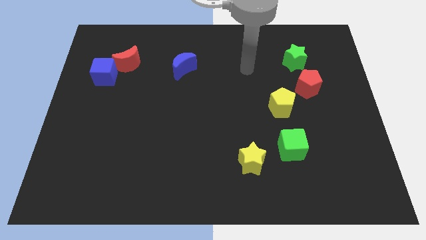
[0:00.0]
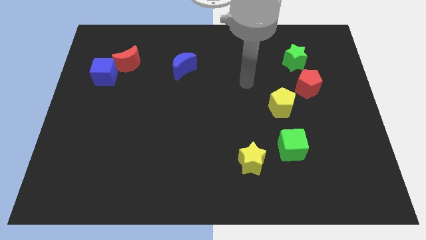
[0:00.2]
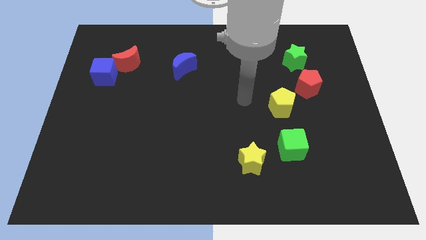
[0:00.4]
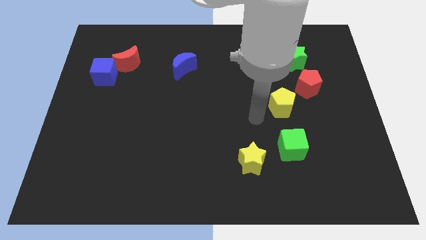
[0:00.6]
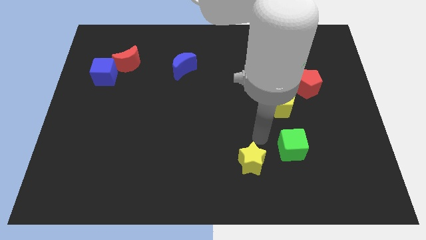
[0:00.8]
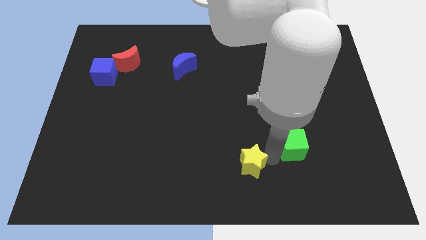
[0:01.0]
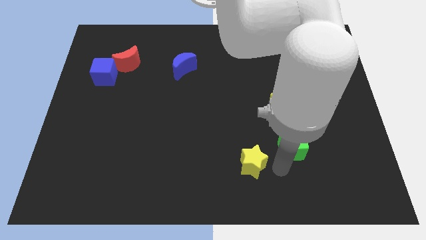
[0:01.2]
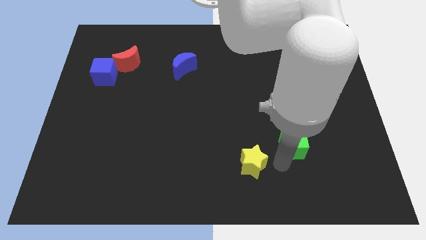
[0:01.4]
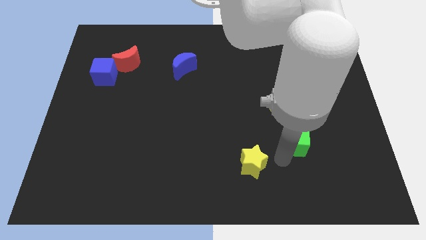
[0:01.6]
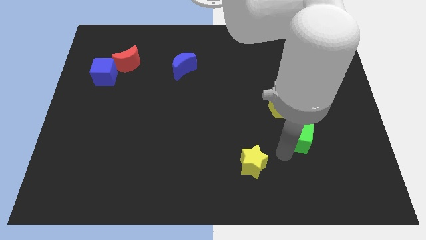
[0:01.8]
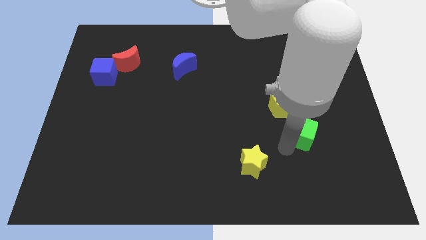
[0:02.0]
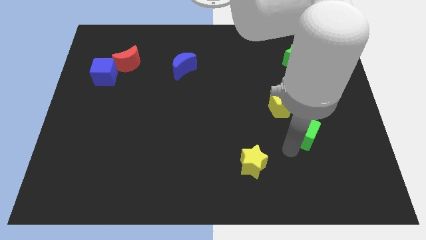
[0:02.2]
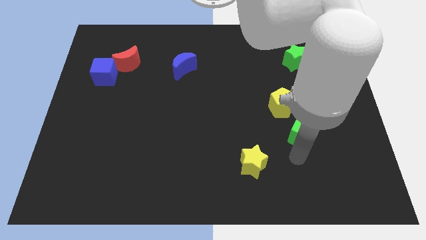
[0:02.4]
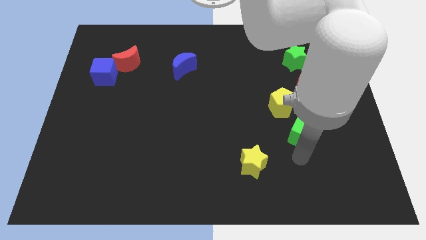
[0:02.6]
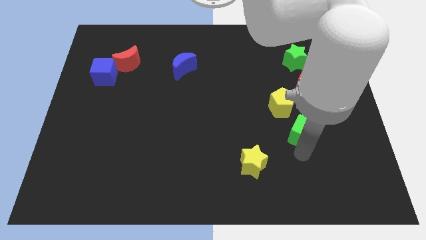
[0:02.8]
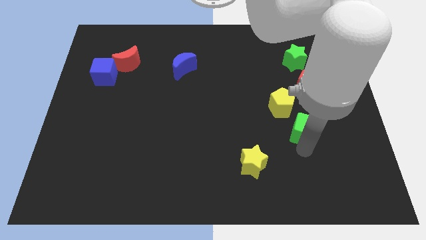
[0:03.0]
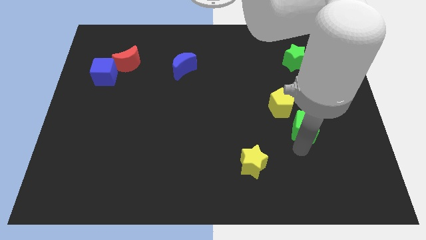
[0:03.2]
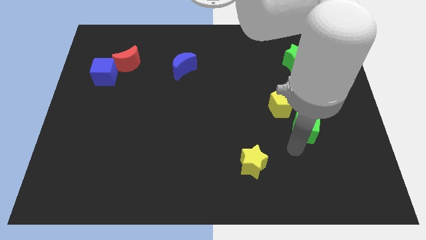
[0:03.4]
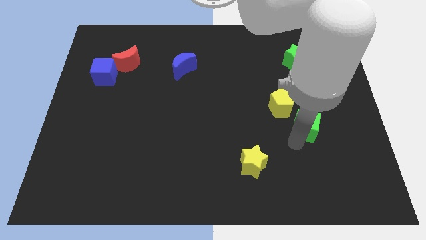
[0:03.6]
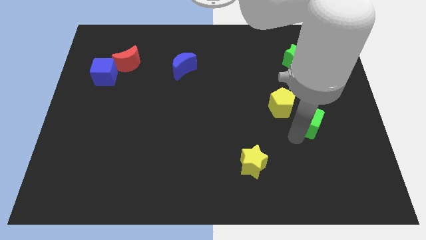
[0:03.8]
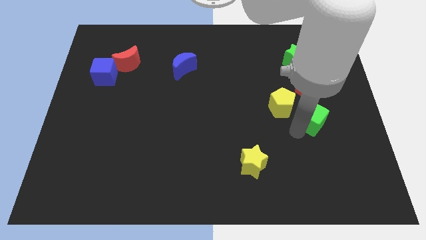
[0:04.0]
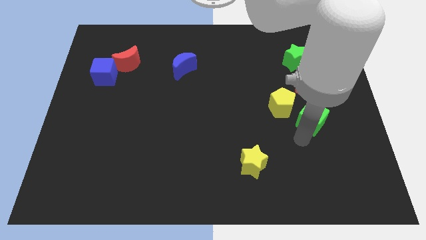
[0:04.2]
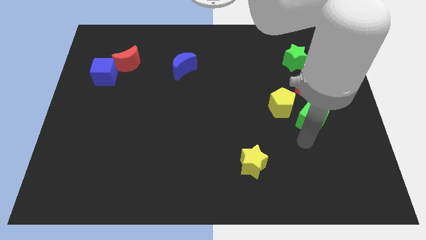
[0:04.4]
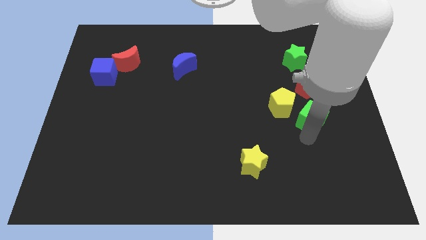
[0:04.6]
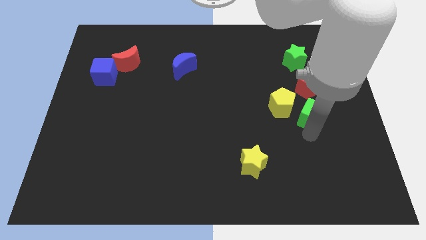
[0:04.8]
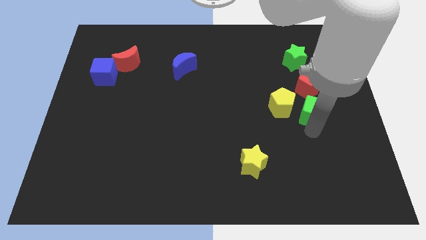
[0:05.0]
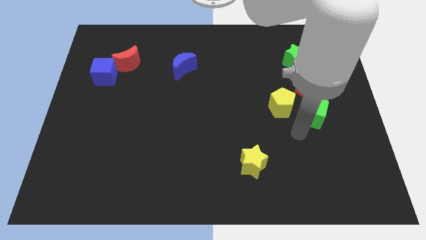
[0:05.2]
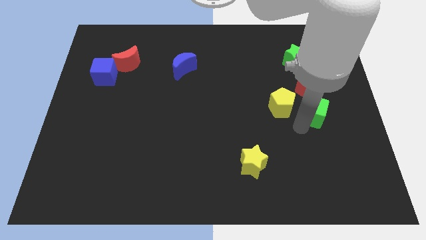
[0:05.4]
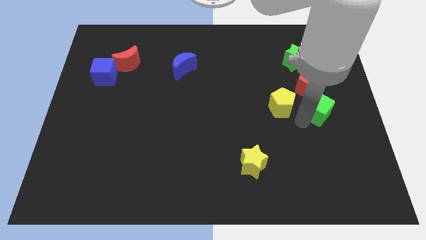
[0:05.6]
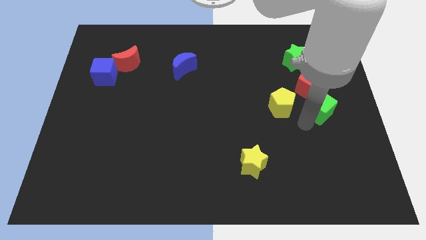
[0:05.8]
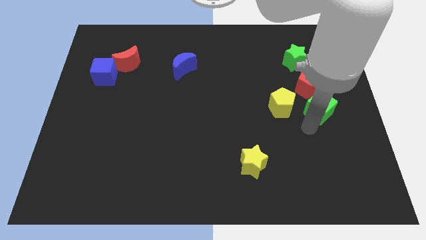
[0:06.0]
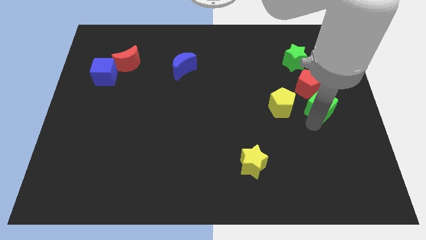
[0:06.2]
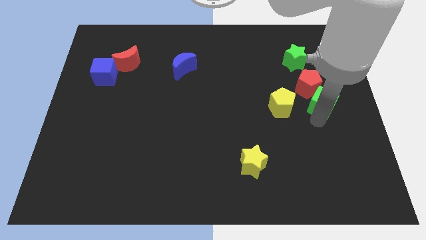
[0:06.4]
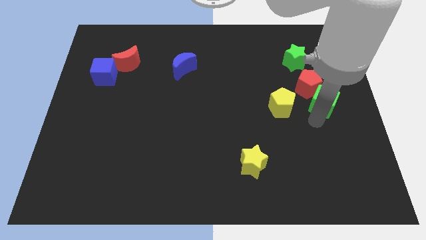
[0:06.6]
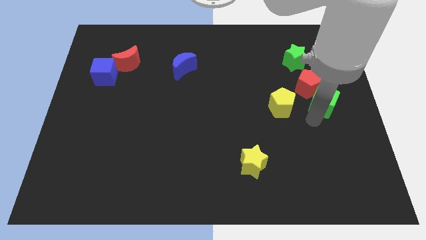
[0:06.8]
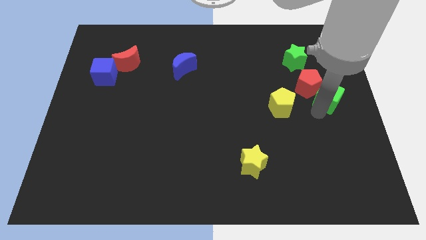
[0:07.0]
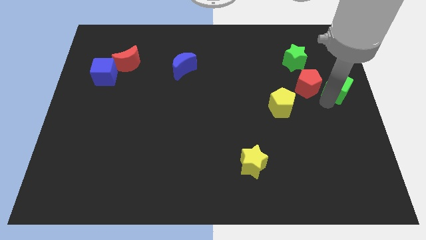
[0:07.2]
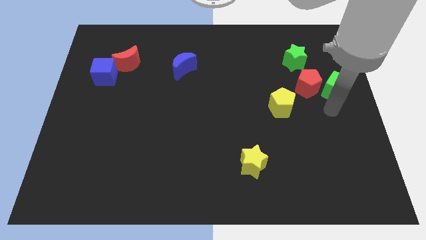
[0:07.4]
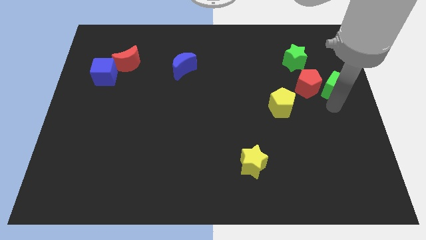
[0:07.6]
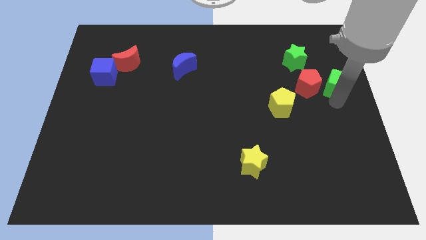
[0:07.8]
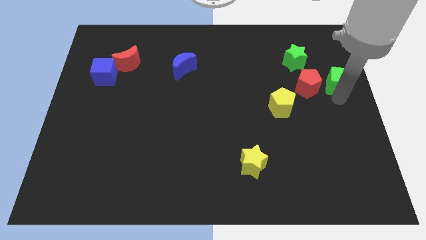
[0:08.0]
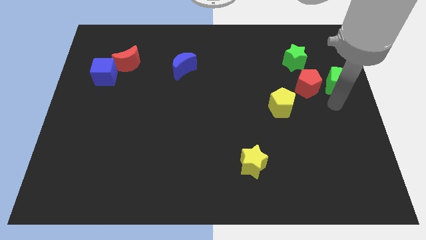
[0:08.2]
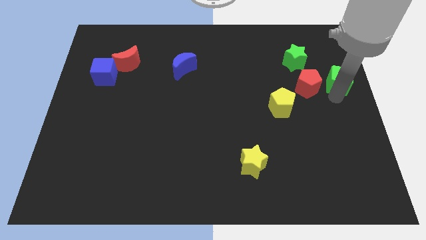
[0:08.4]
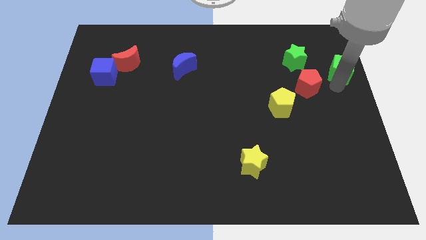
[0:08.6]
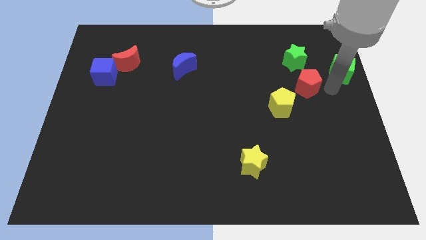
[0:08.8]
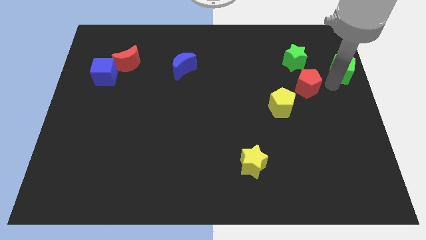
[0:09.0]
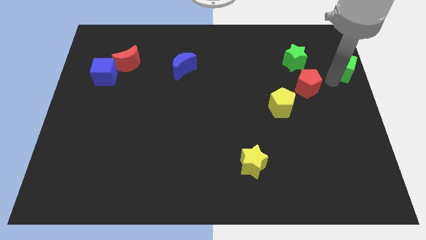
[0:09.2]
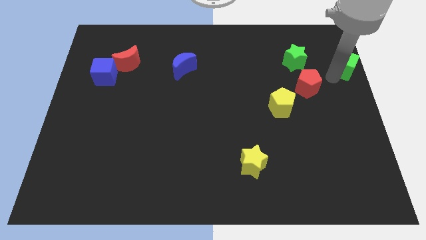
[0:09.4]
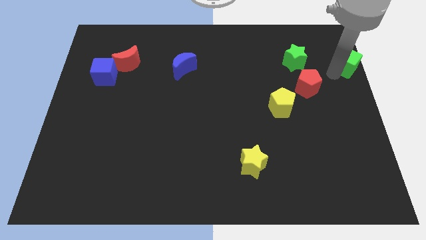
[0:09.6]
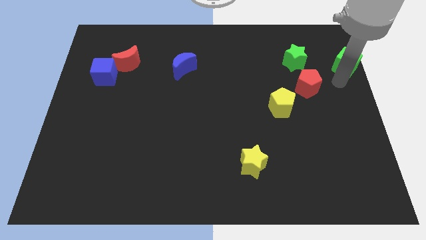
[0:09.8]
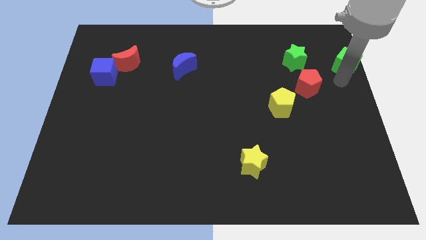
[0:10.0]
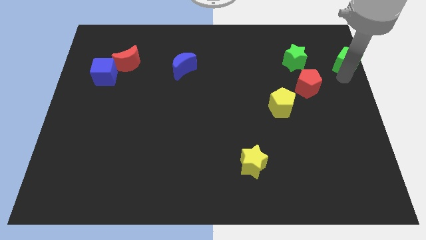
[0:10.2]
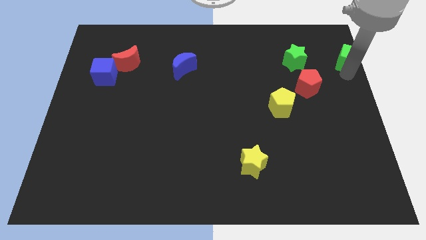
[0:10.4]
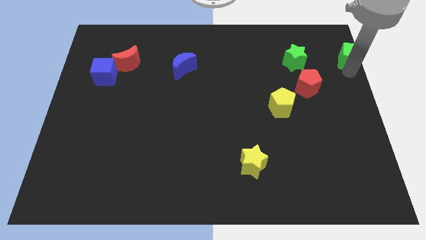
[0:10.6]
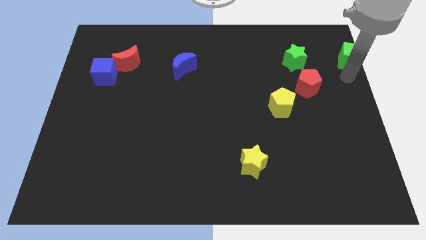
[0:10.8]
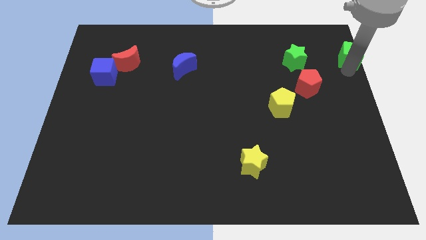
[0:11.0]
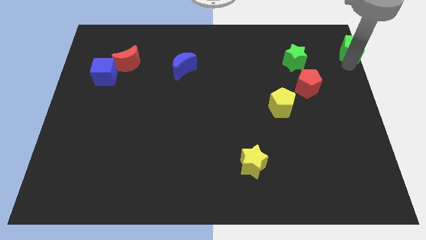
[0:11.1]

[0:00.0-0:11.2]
put the green cube to the top right of the board

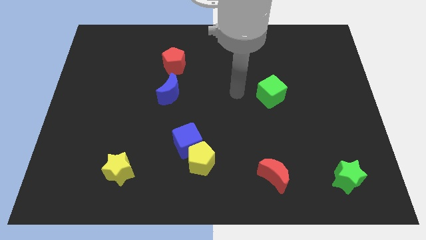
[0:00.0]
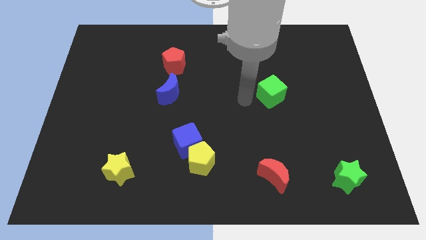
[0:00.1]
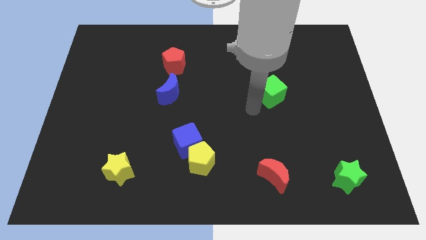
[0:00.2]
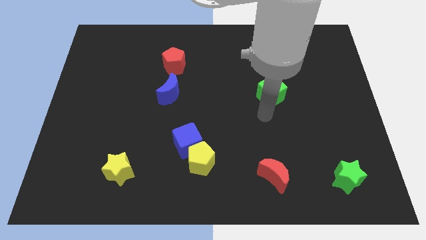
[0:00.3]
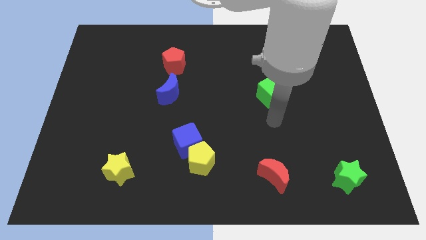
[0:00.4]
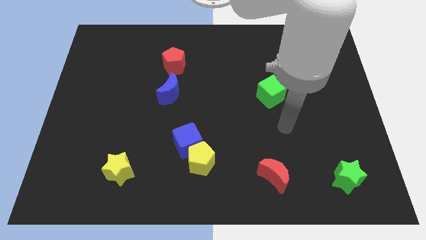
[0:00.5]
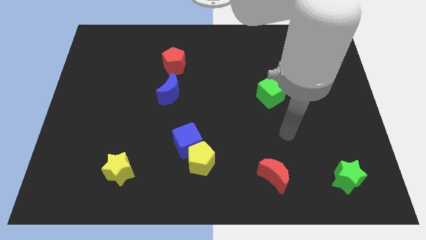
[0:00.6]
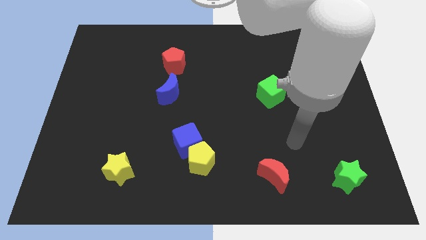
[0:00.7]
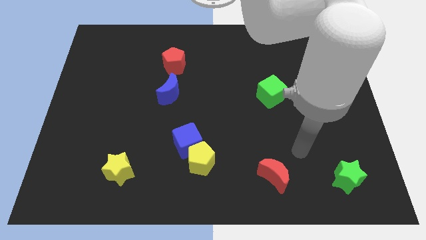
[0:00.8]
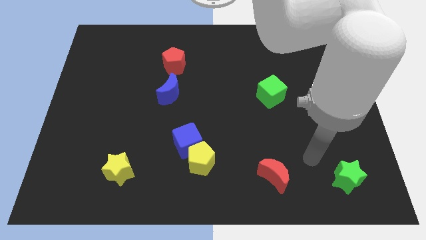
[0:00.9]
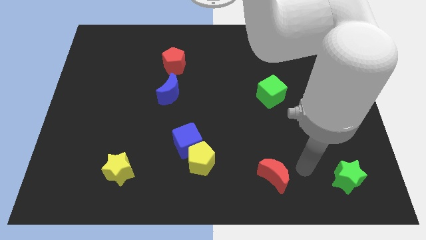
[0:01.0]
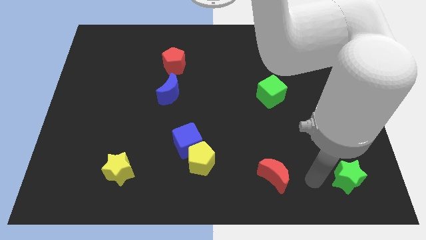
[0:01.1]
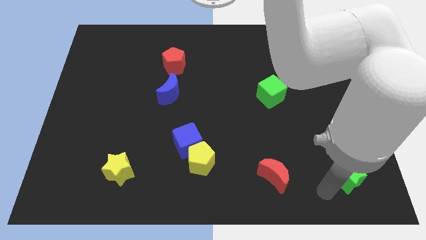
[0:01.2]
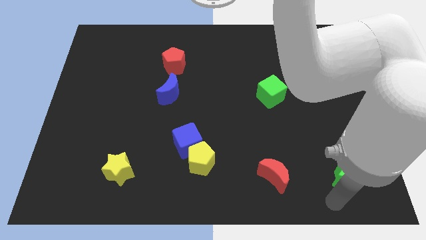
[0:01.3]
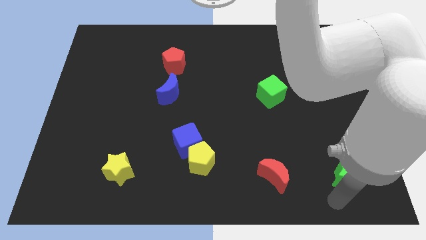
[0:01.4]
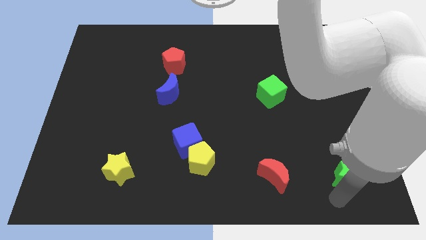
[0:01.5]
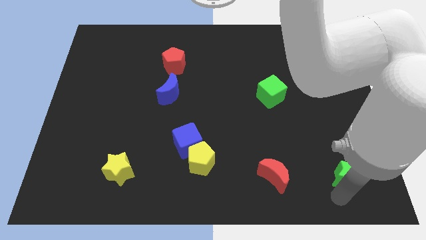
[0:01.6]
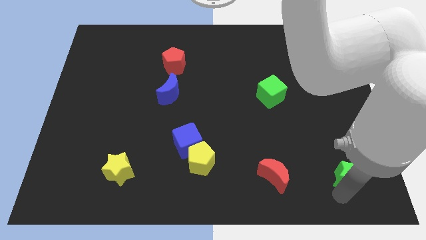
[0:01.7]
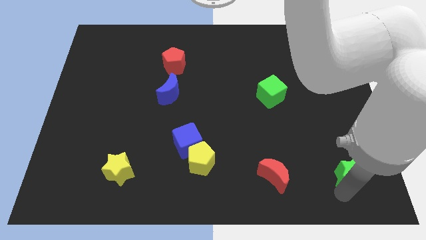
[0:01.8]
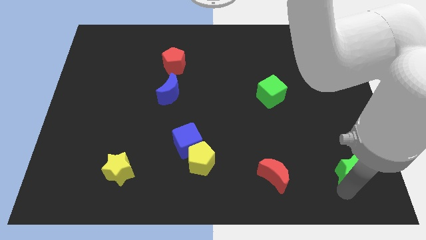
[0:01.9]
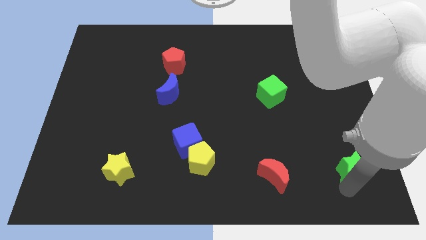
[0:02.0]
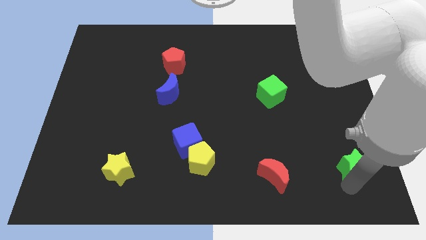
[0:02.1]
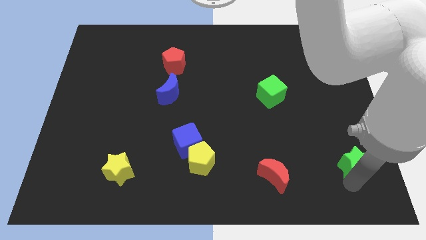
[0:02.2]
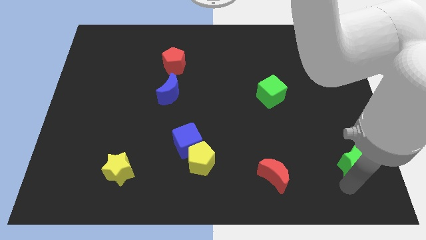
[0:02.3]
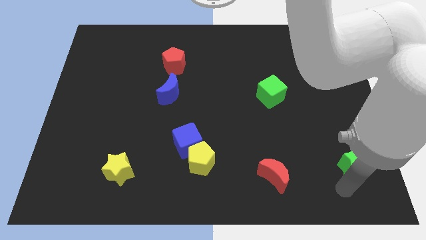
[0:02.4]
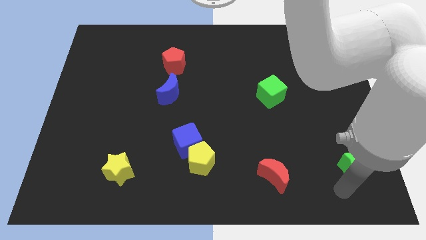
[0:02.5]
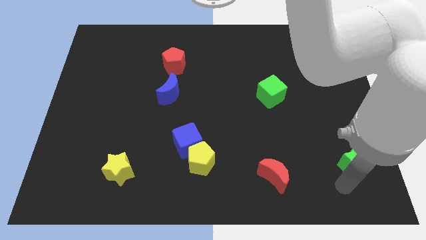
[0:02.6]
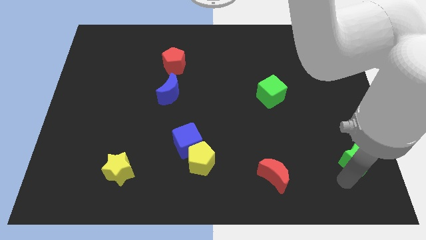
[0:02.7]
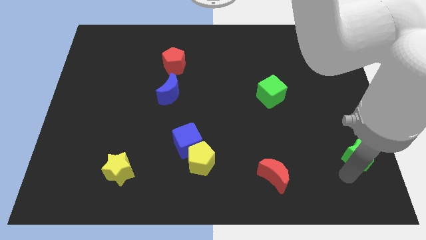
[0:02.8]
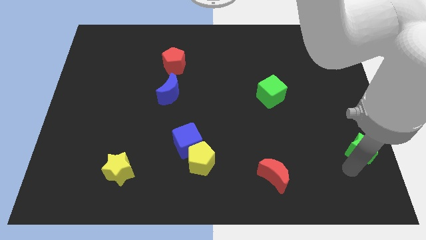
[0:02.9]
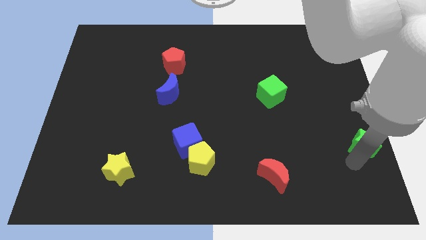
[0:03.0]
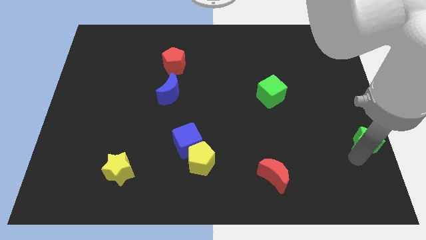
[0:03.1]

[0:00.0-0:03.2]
push the green star to the right side of the board
